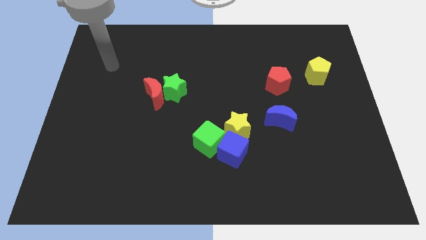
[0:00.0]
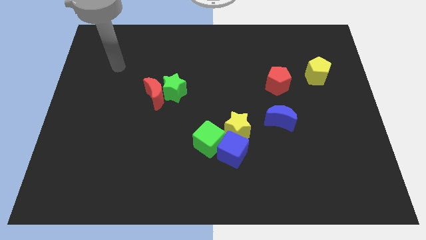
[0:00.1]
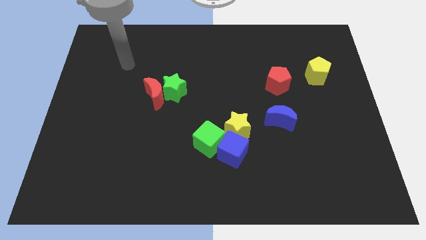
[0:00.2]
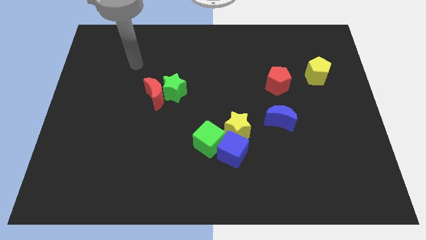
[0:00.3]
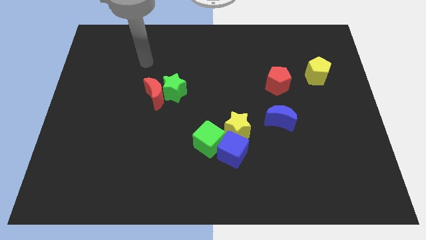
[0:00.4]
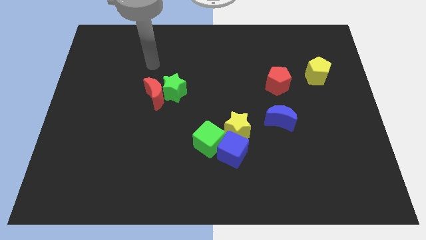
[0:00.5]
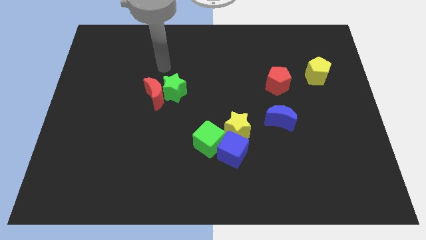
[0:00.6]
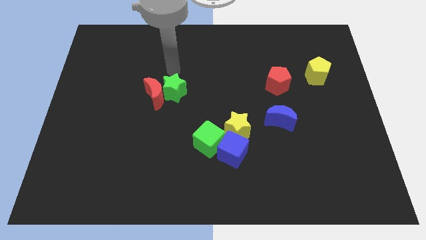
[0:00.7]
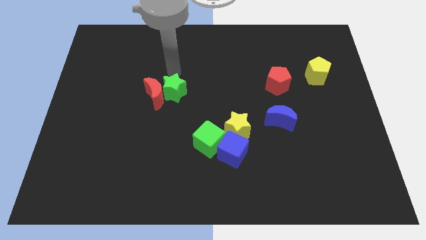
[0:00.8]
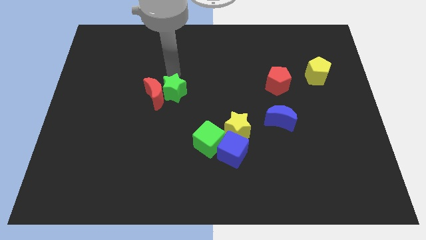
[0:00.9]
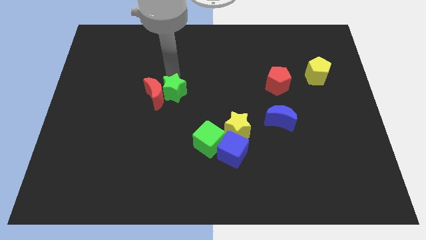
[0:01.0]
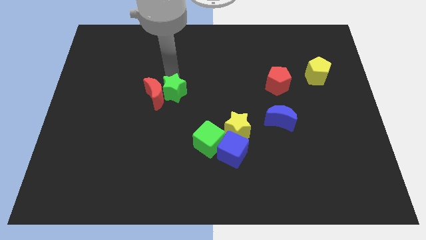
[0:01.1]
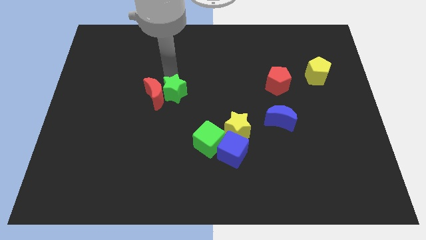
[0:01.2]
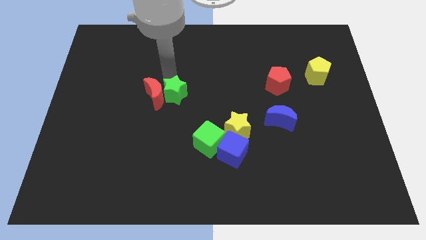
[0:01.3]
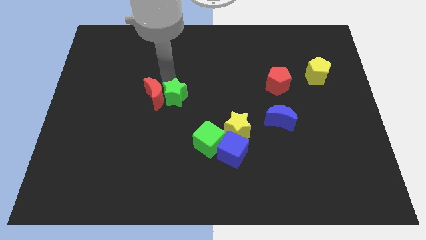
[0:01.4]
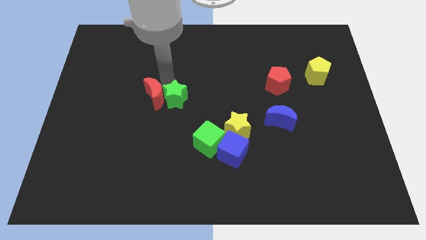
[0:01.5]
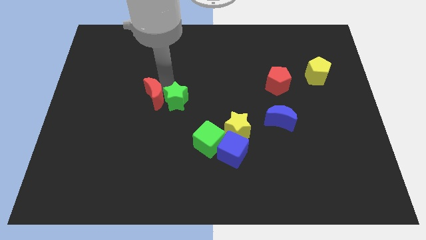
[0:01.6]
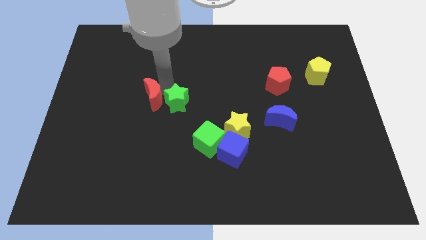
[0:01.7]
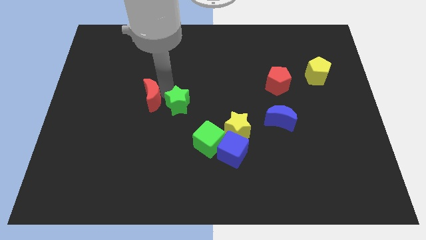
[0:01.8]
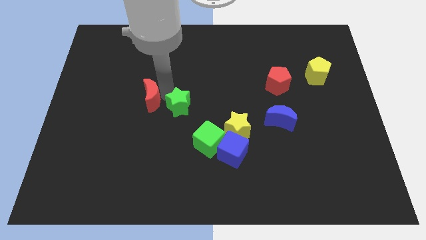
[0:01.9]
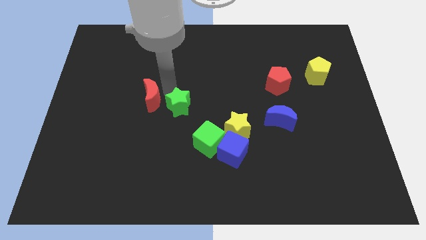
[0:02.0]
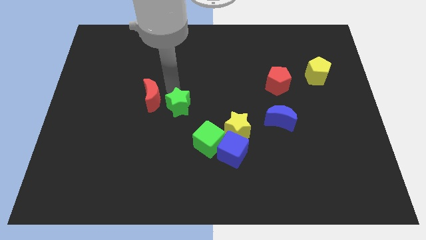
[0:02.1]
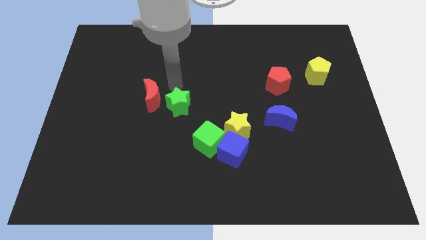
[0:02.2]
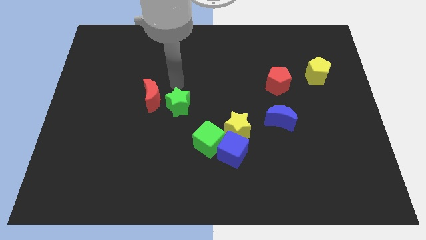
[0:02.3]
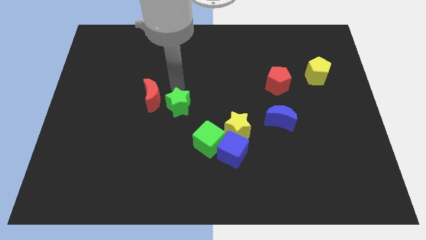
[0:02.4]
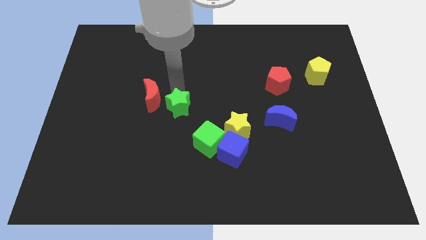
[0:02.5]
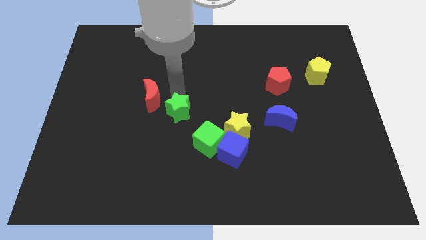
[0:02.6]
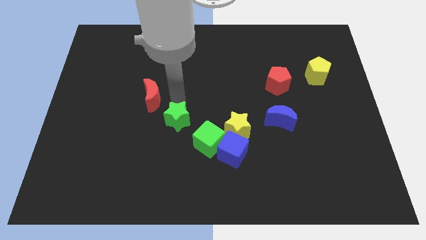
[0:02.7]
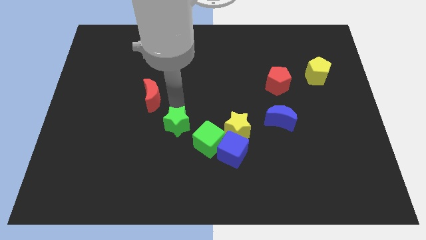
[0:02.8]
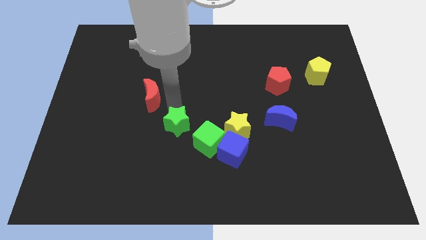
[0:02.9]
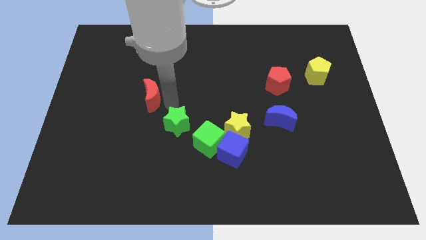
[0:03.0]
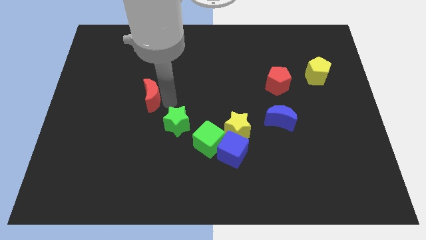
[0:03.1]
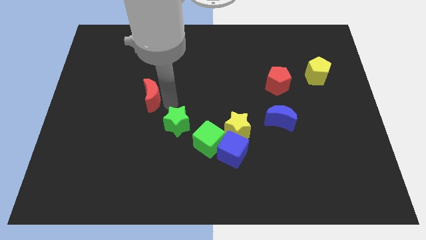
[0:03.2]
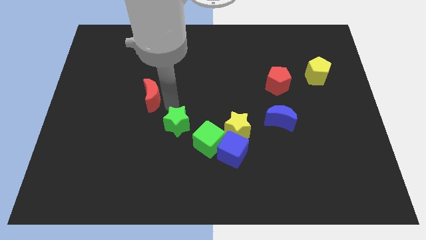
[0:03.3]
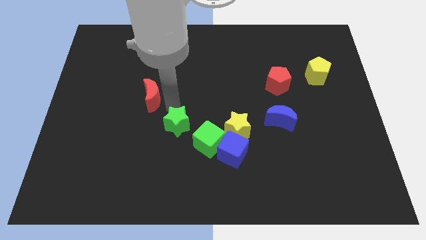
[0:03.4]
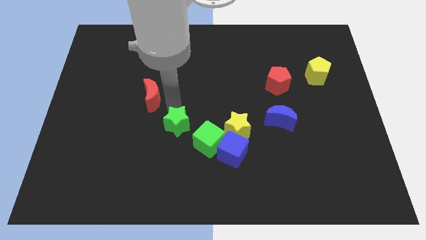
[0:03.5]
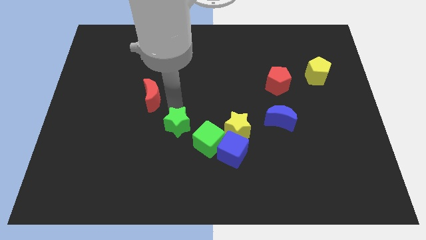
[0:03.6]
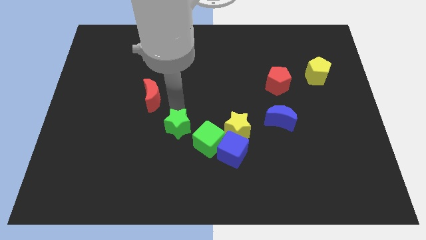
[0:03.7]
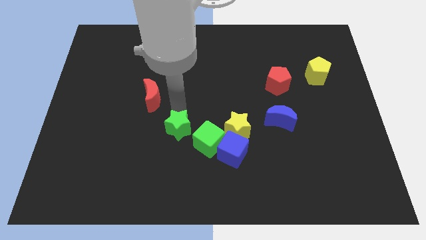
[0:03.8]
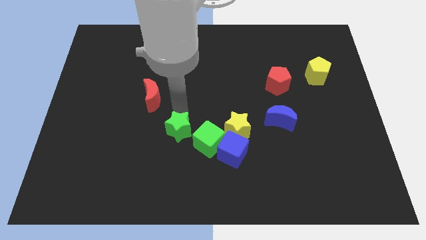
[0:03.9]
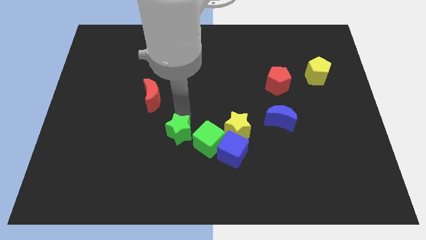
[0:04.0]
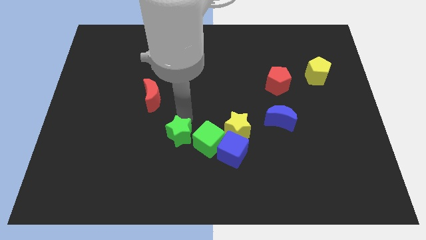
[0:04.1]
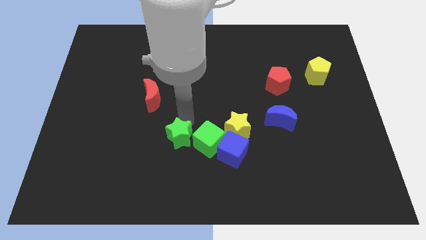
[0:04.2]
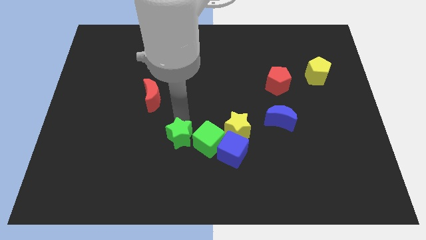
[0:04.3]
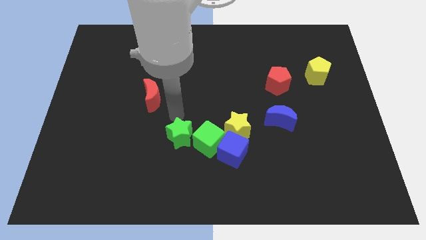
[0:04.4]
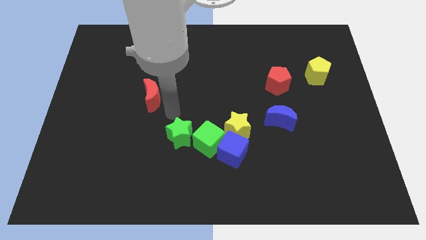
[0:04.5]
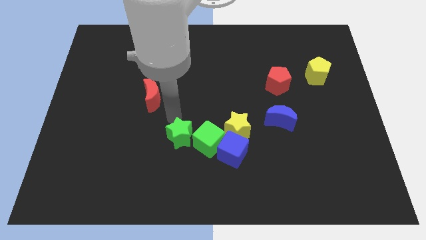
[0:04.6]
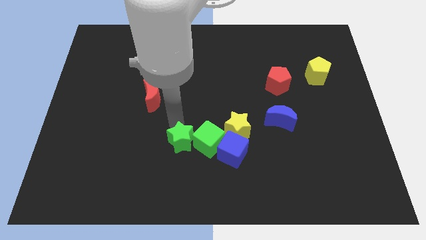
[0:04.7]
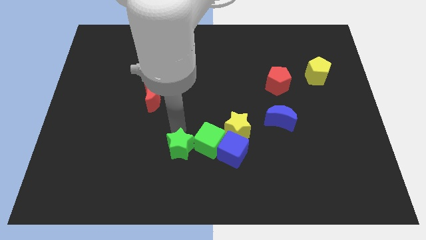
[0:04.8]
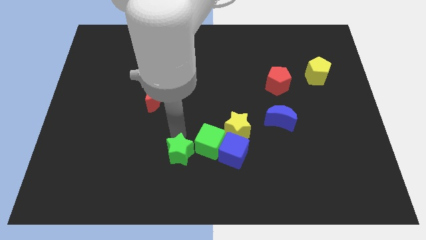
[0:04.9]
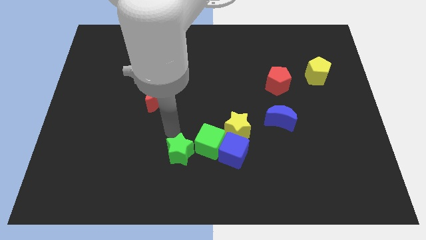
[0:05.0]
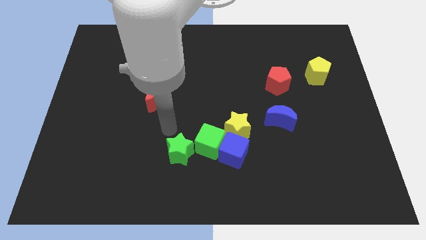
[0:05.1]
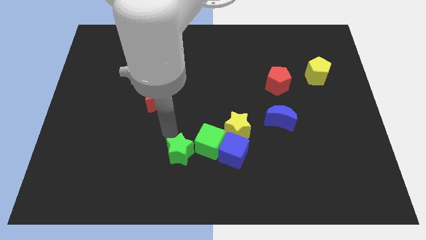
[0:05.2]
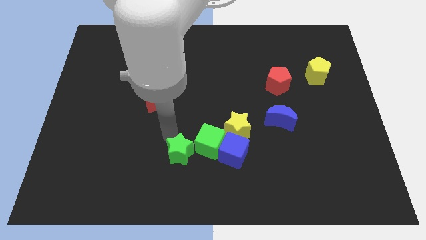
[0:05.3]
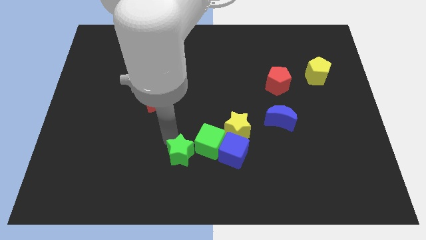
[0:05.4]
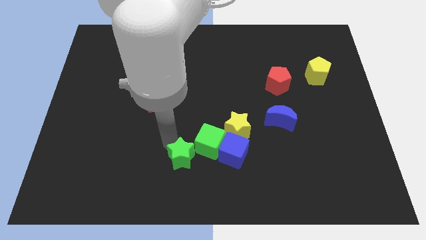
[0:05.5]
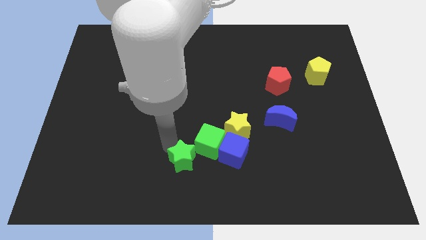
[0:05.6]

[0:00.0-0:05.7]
slide the green star to the bottom side
